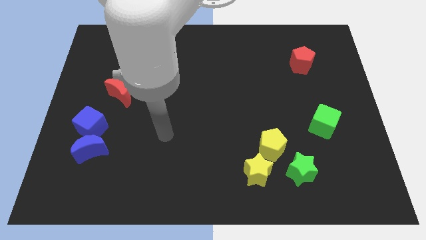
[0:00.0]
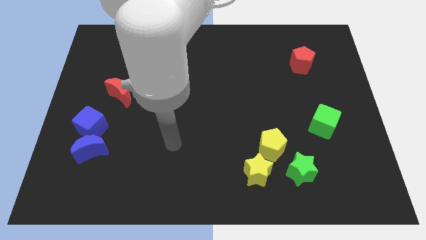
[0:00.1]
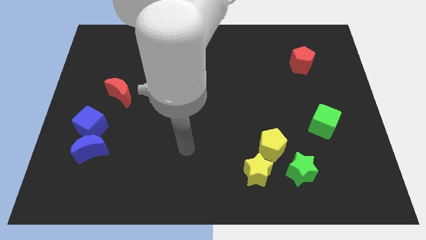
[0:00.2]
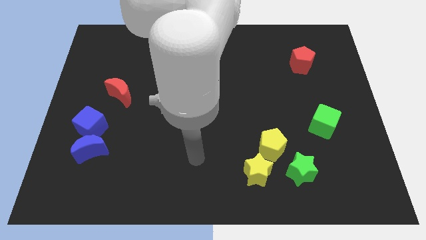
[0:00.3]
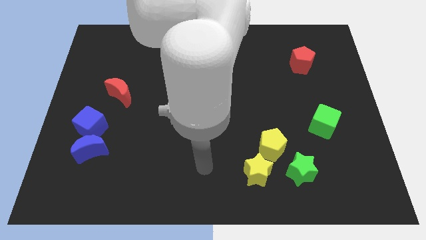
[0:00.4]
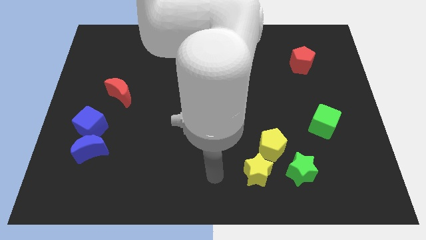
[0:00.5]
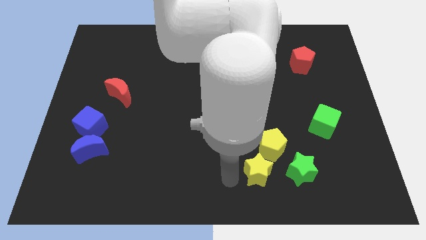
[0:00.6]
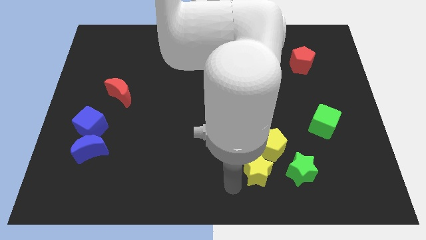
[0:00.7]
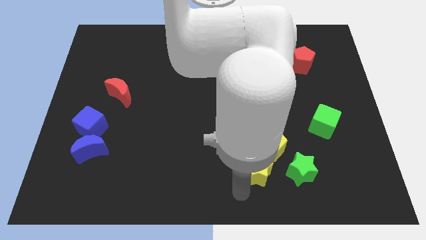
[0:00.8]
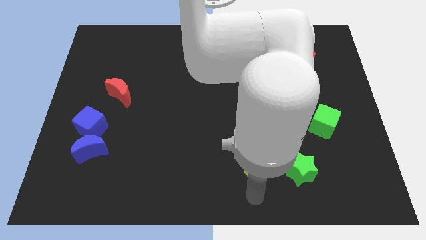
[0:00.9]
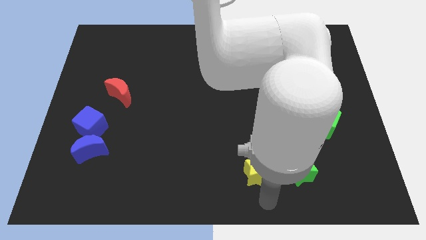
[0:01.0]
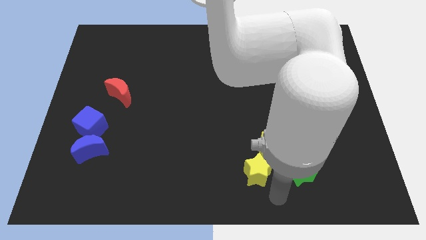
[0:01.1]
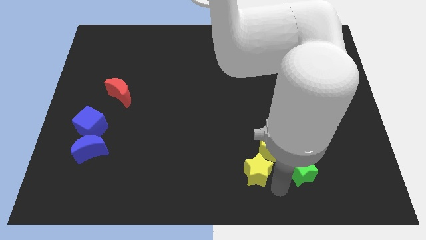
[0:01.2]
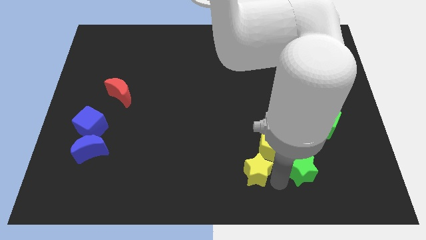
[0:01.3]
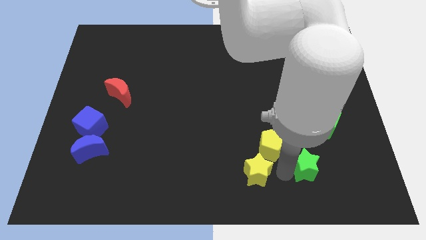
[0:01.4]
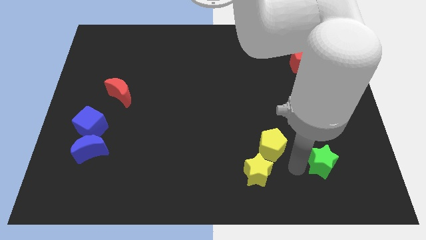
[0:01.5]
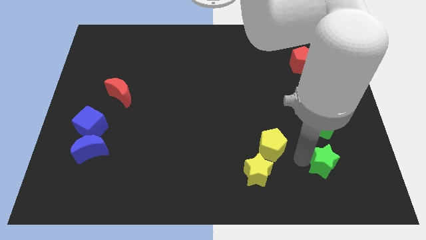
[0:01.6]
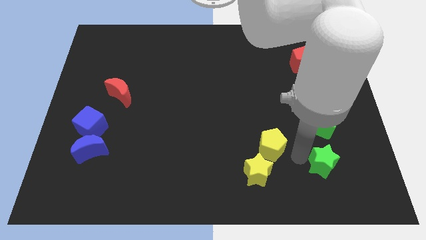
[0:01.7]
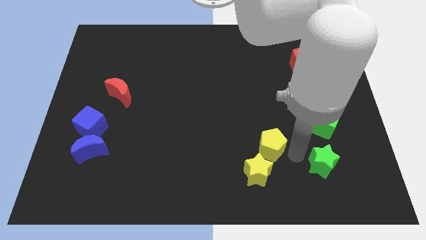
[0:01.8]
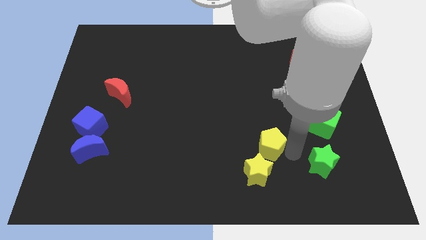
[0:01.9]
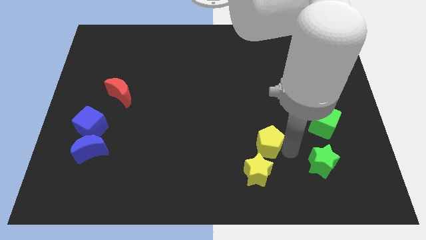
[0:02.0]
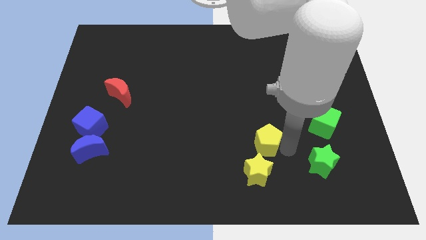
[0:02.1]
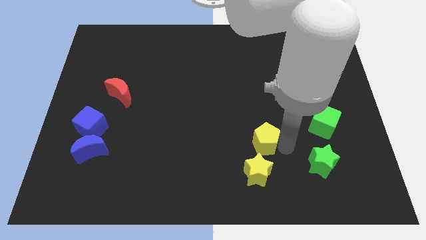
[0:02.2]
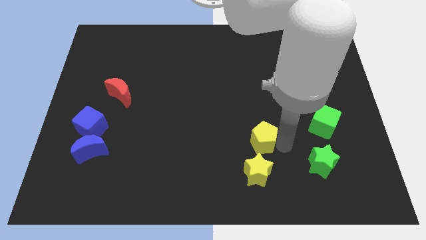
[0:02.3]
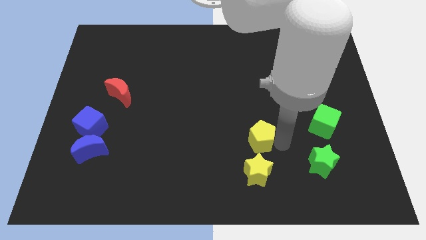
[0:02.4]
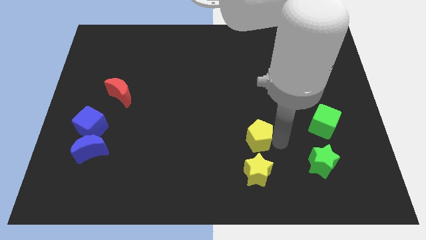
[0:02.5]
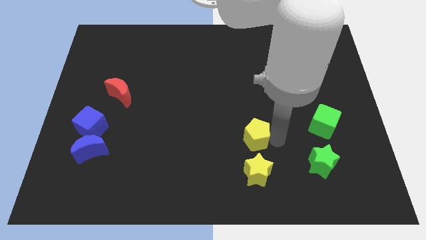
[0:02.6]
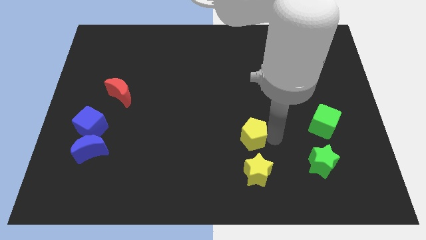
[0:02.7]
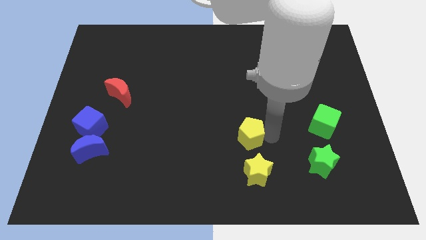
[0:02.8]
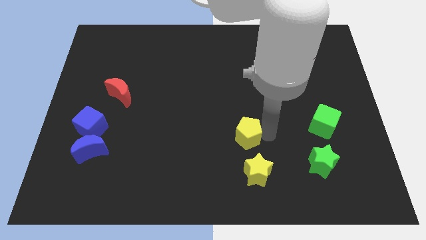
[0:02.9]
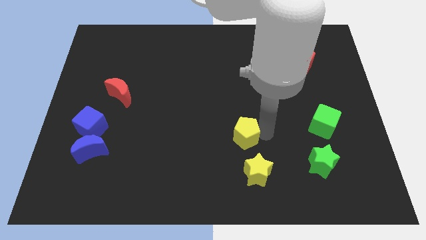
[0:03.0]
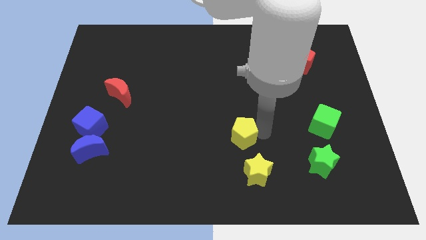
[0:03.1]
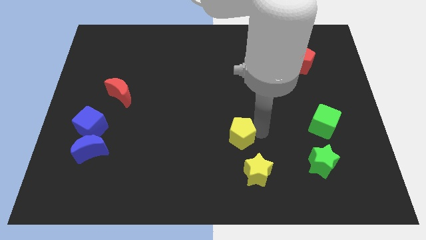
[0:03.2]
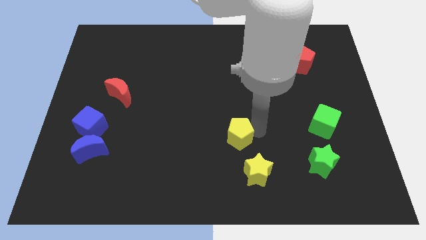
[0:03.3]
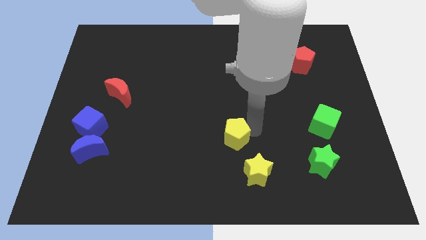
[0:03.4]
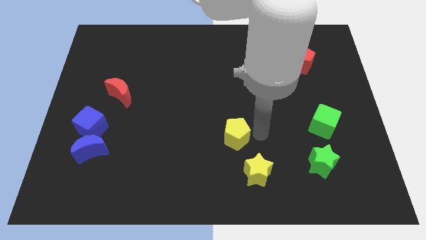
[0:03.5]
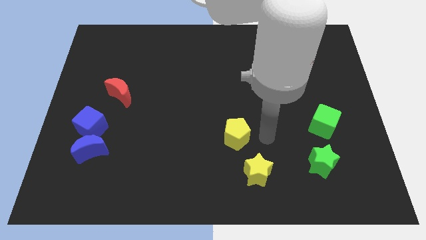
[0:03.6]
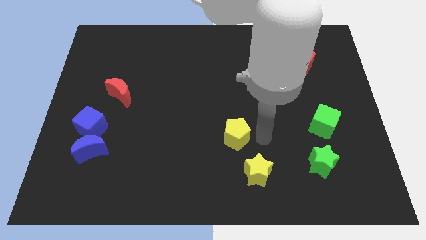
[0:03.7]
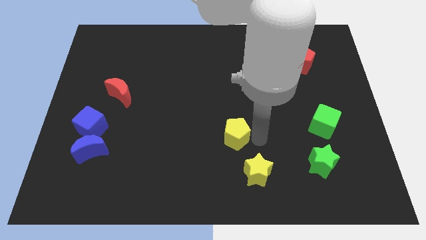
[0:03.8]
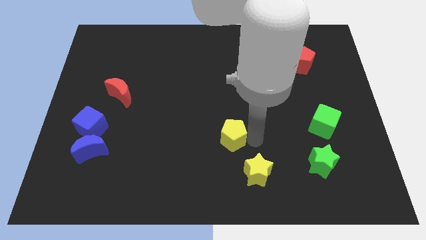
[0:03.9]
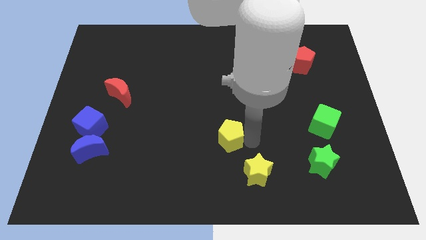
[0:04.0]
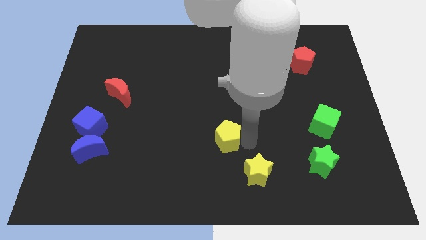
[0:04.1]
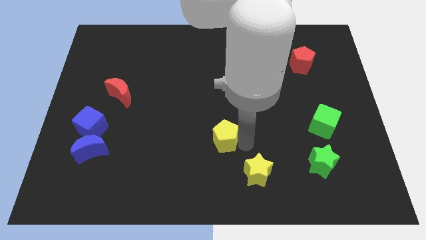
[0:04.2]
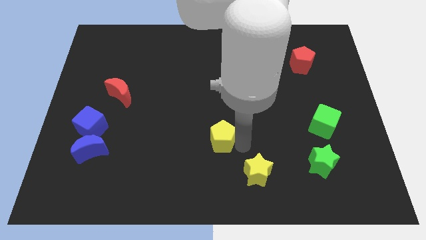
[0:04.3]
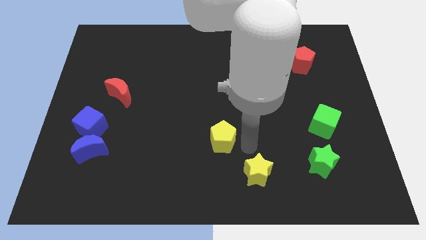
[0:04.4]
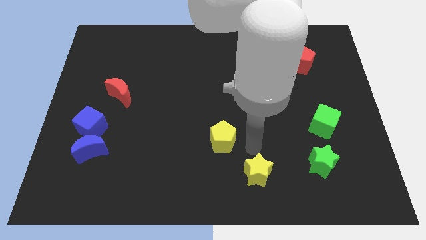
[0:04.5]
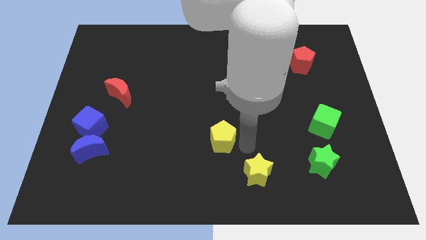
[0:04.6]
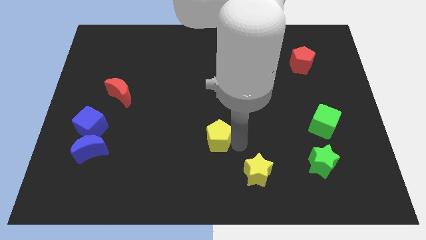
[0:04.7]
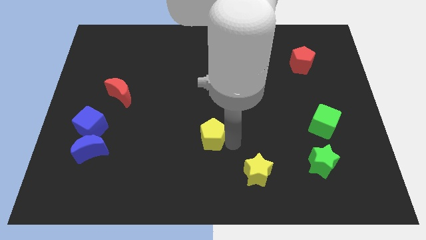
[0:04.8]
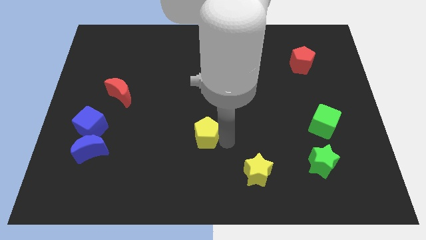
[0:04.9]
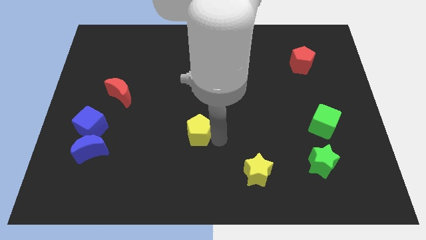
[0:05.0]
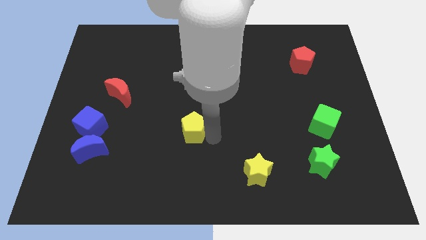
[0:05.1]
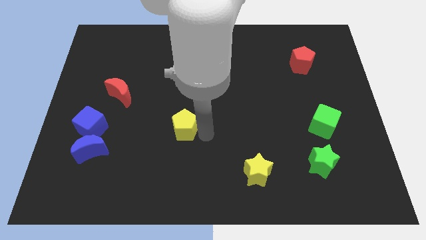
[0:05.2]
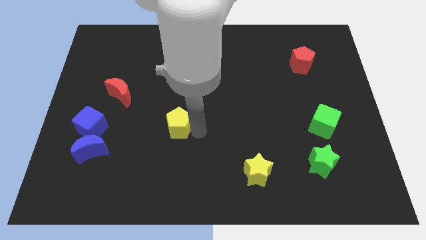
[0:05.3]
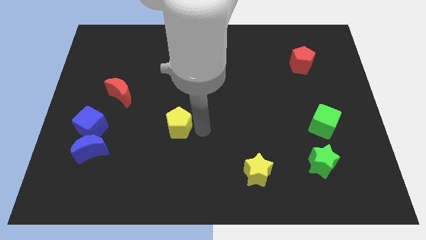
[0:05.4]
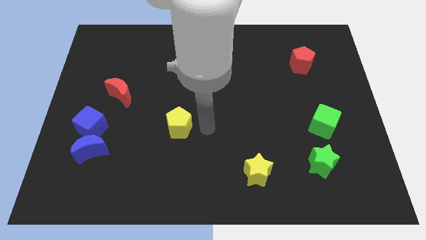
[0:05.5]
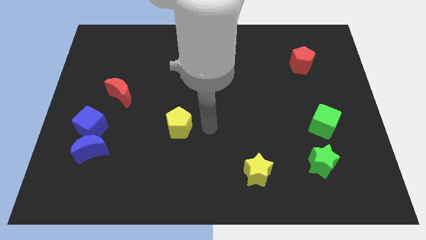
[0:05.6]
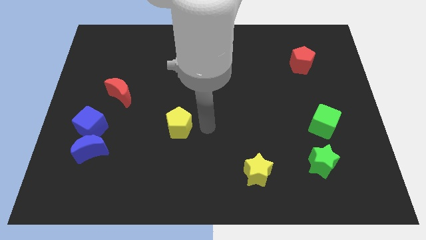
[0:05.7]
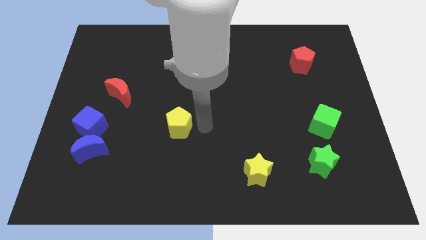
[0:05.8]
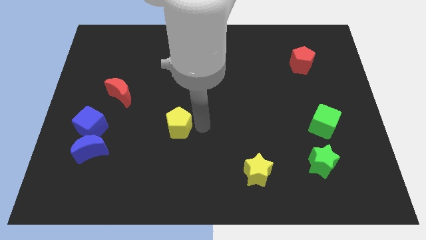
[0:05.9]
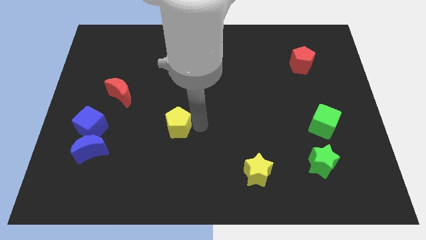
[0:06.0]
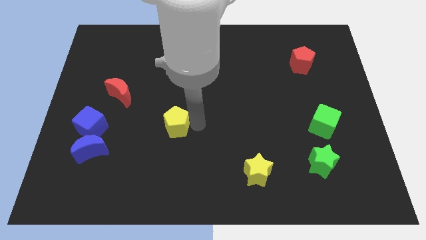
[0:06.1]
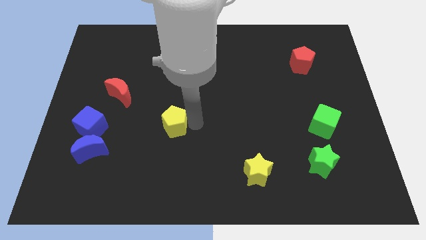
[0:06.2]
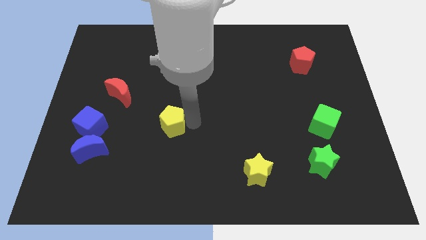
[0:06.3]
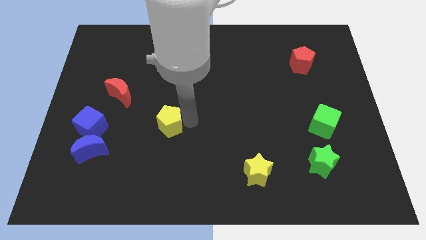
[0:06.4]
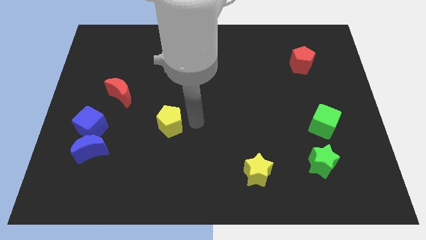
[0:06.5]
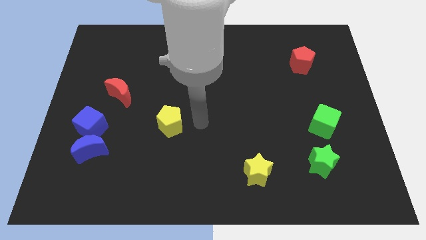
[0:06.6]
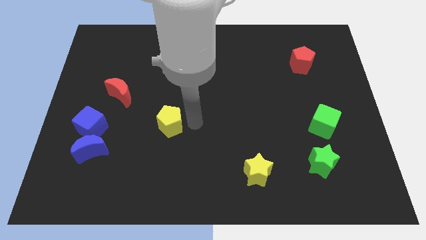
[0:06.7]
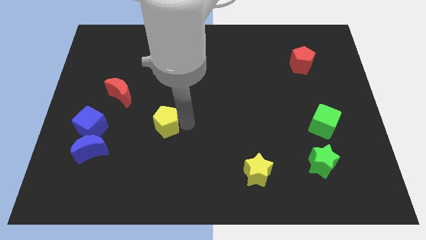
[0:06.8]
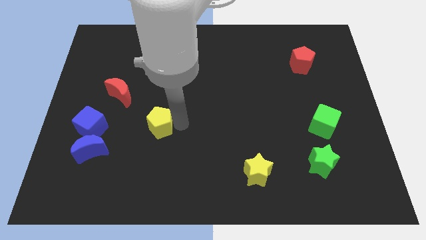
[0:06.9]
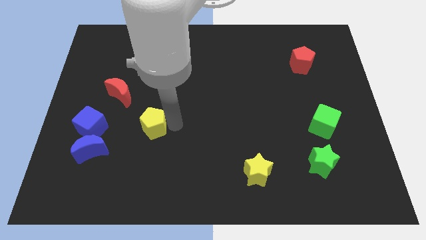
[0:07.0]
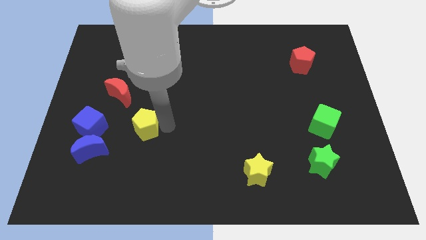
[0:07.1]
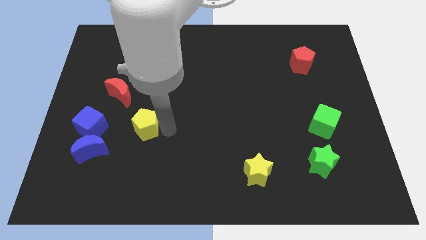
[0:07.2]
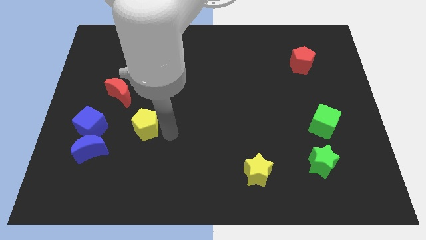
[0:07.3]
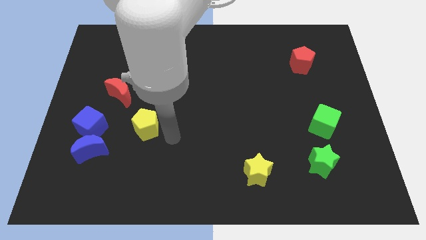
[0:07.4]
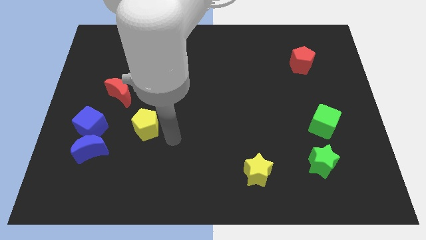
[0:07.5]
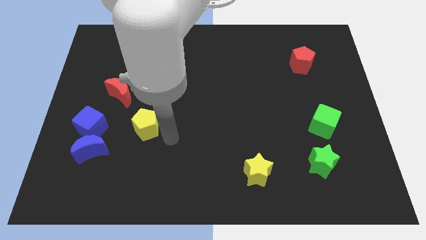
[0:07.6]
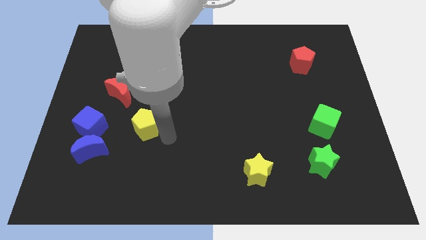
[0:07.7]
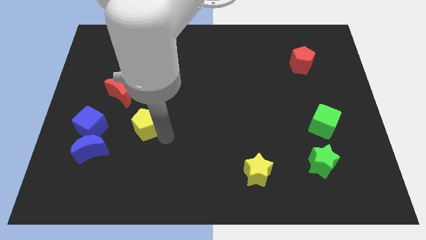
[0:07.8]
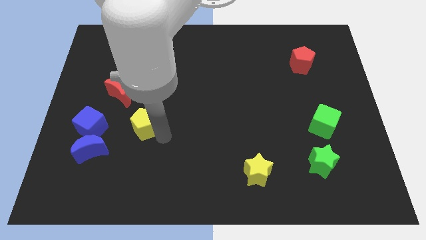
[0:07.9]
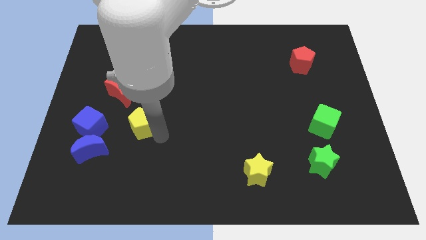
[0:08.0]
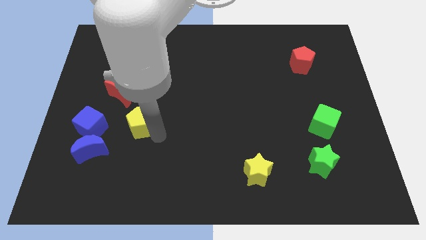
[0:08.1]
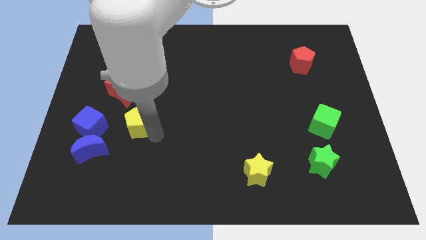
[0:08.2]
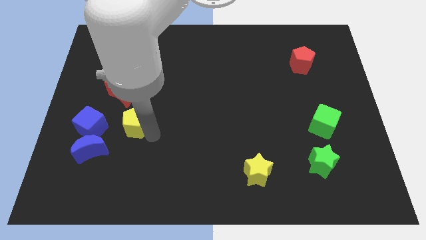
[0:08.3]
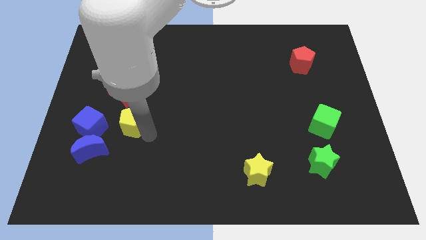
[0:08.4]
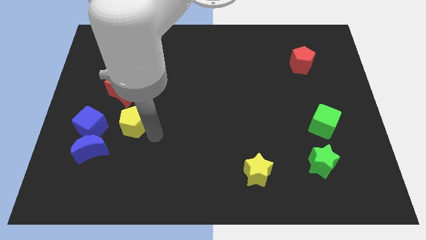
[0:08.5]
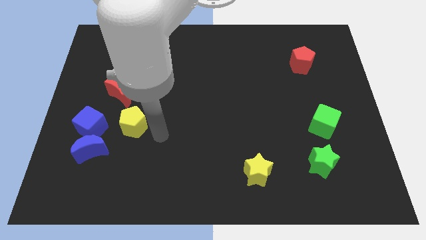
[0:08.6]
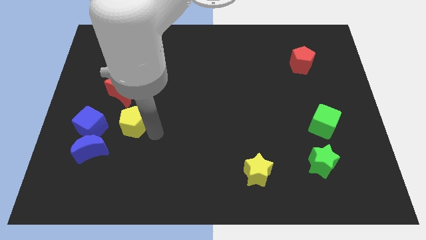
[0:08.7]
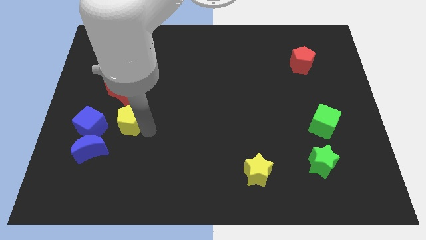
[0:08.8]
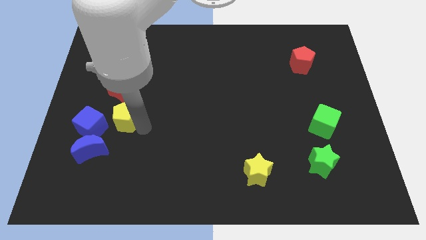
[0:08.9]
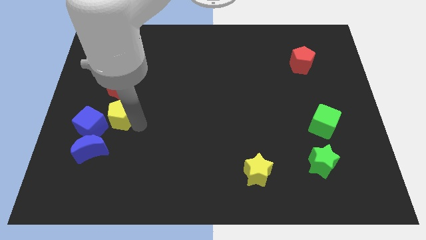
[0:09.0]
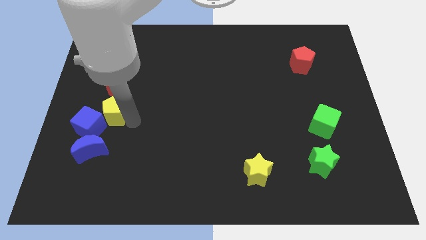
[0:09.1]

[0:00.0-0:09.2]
slide the yellow pentagon diagonally down and to the left of the red moon
